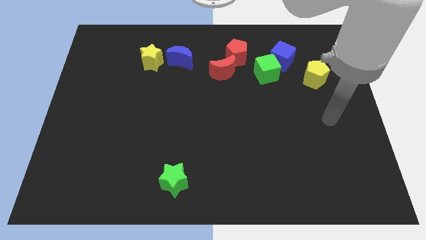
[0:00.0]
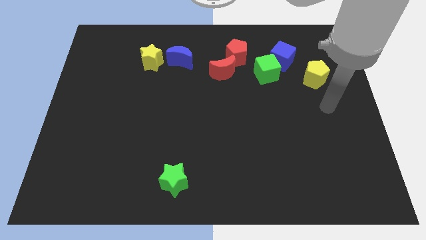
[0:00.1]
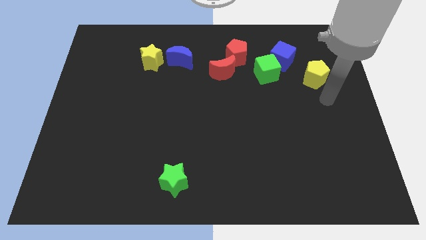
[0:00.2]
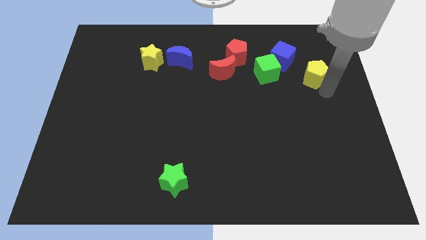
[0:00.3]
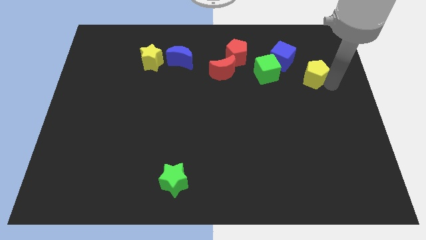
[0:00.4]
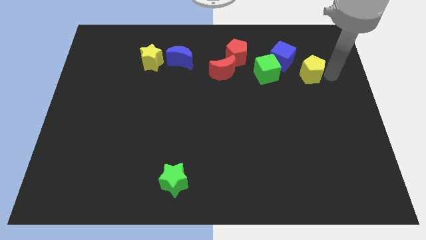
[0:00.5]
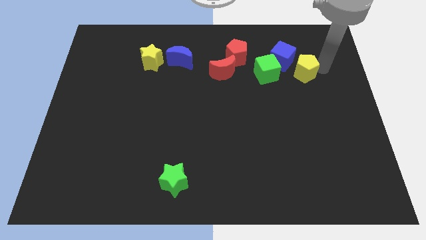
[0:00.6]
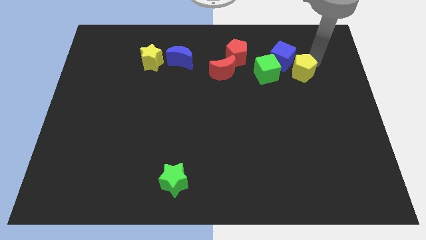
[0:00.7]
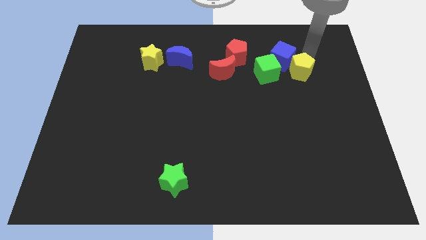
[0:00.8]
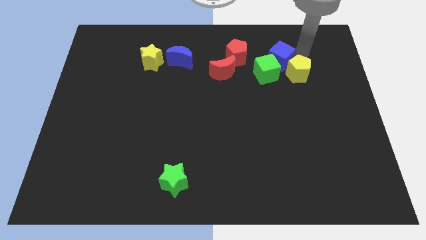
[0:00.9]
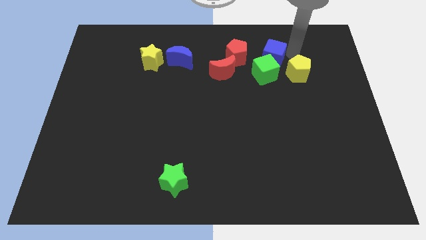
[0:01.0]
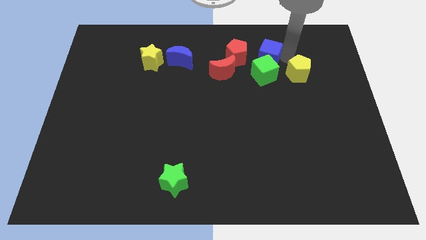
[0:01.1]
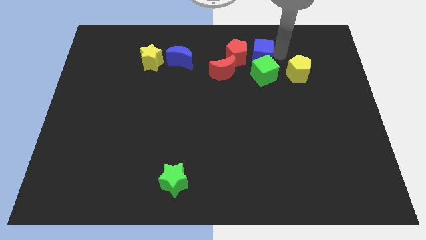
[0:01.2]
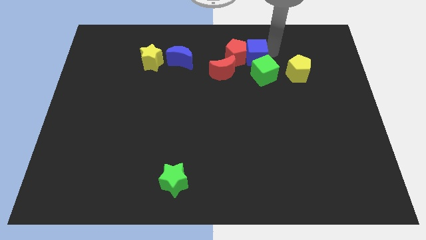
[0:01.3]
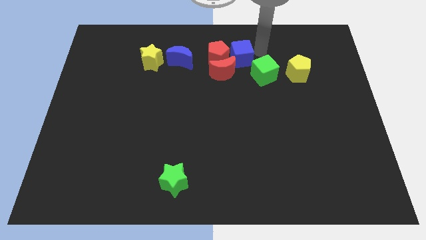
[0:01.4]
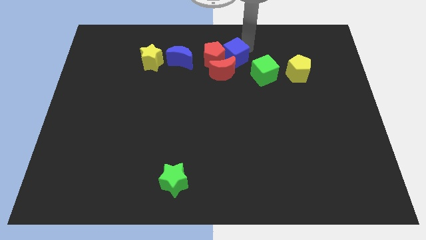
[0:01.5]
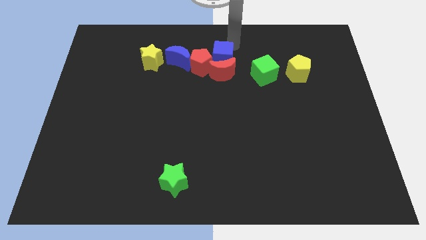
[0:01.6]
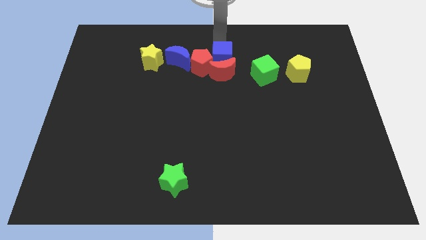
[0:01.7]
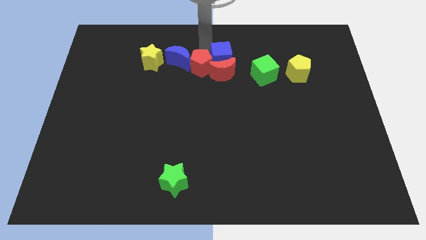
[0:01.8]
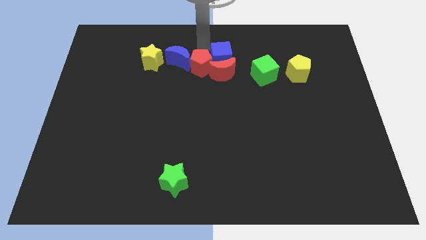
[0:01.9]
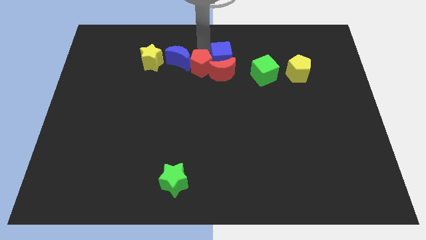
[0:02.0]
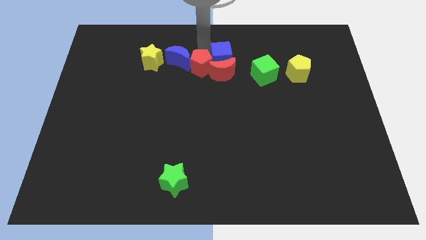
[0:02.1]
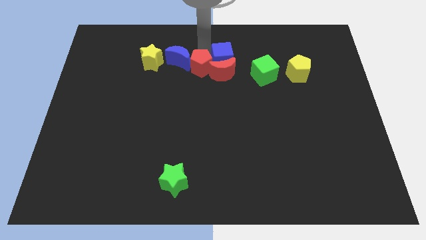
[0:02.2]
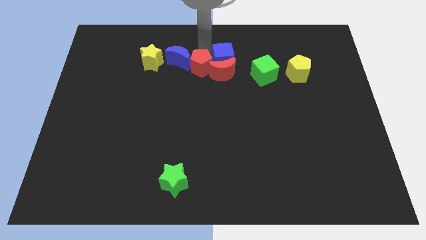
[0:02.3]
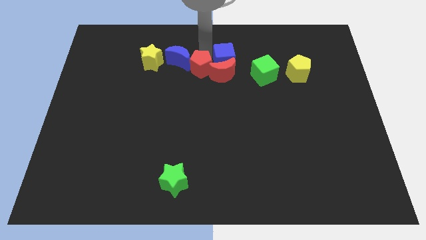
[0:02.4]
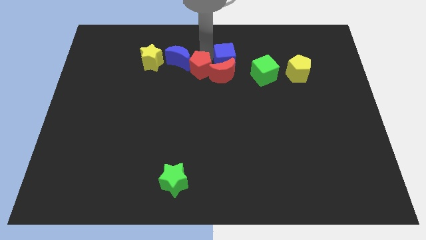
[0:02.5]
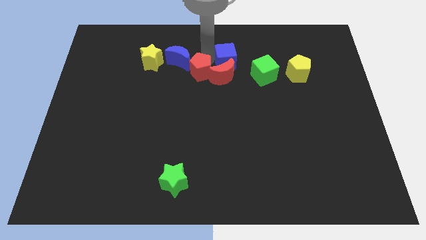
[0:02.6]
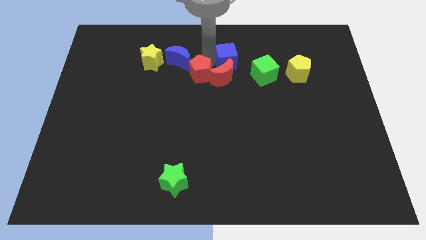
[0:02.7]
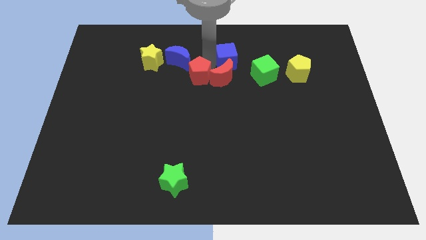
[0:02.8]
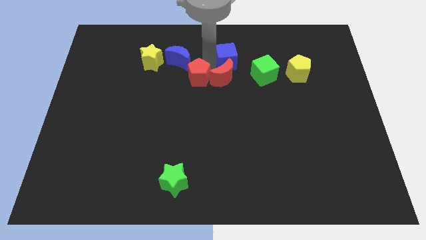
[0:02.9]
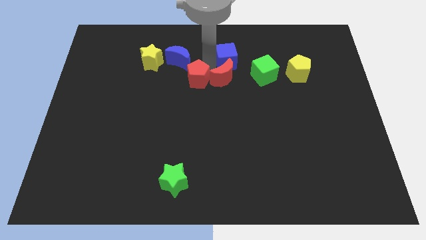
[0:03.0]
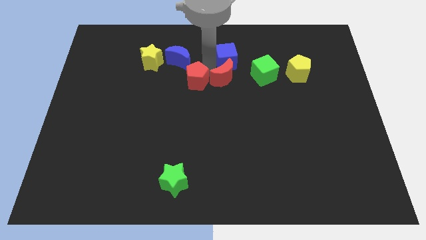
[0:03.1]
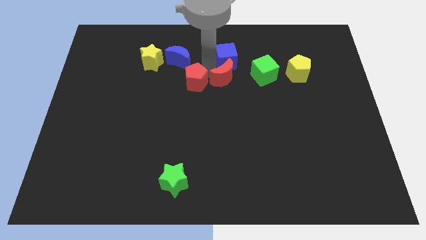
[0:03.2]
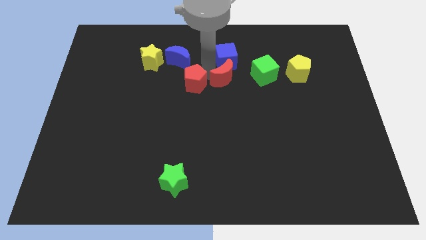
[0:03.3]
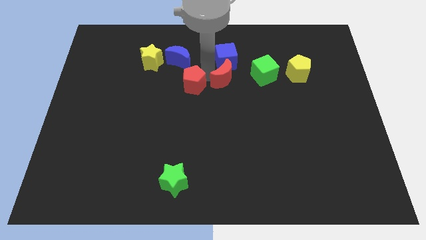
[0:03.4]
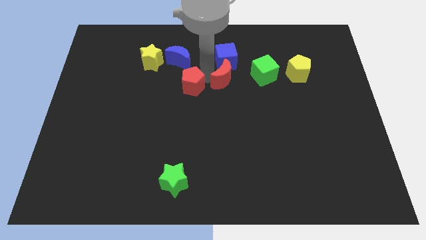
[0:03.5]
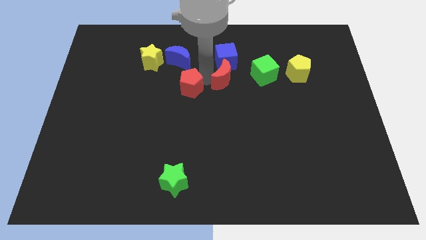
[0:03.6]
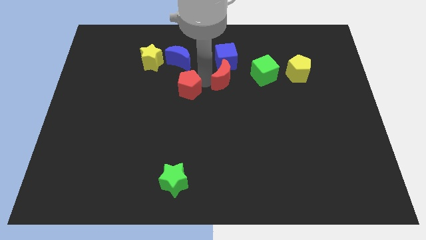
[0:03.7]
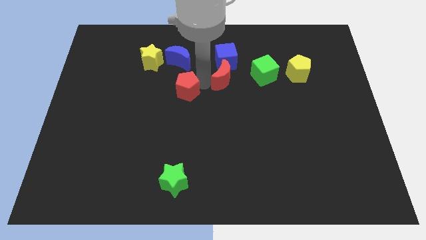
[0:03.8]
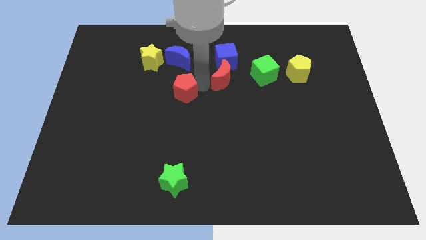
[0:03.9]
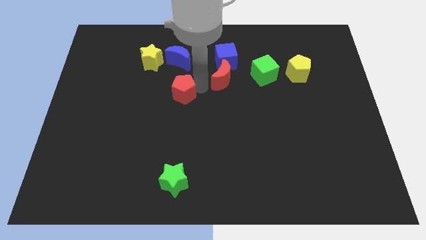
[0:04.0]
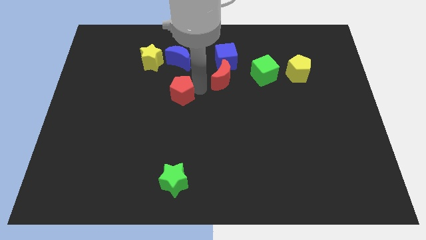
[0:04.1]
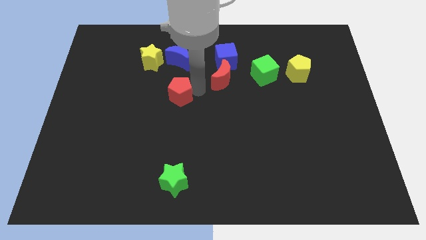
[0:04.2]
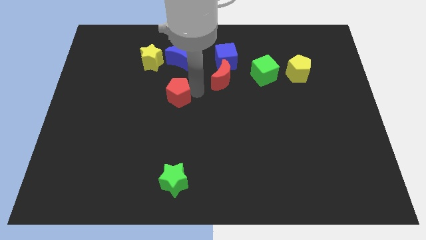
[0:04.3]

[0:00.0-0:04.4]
move the red pentagon diagonally downwards and left

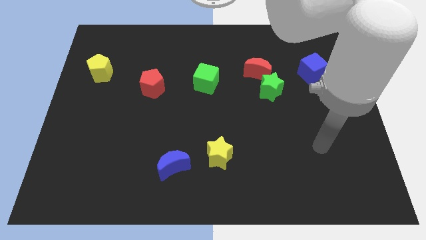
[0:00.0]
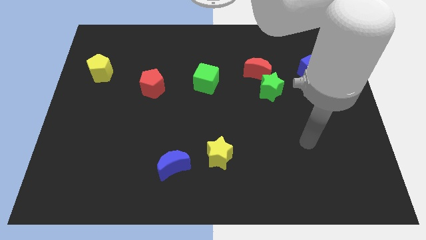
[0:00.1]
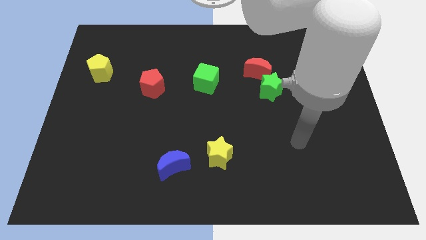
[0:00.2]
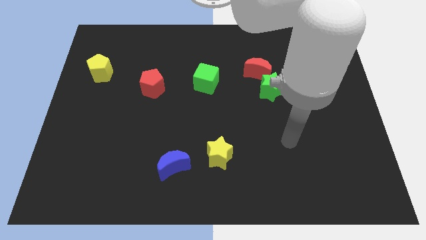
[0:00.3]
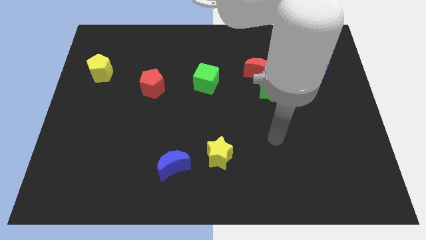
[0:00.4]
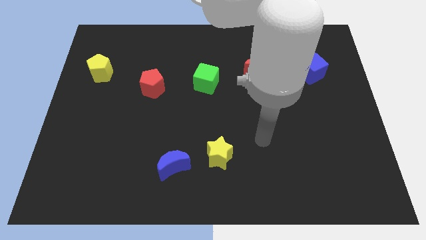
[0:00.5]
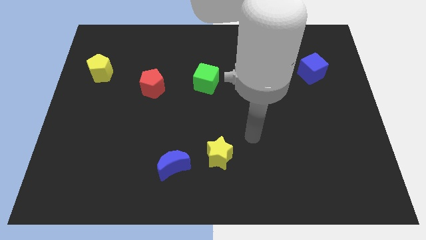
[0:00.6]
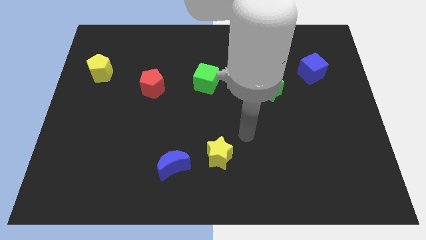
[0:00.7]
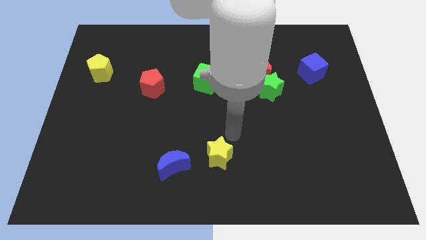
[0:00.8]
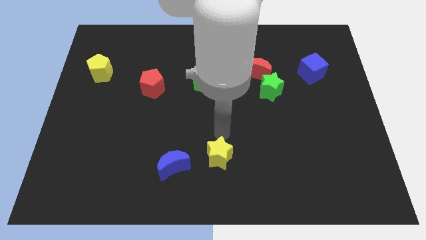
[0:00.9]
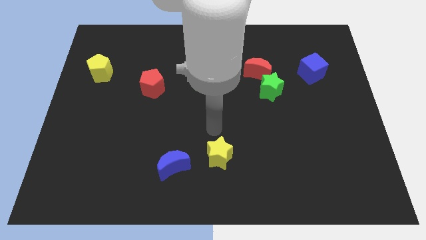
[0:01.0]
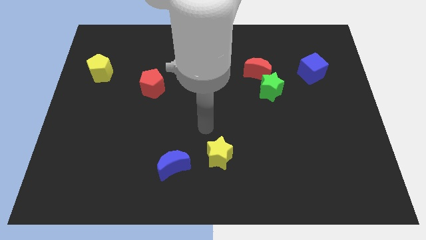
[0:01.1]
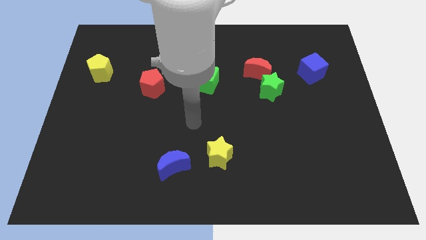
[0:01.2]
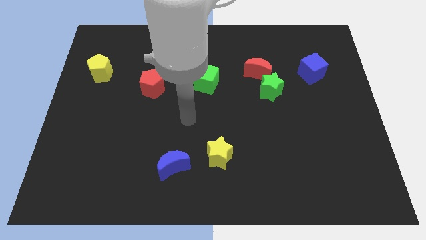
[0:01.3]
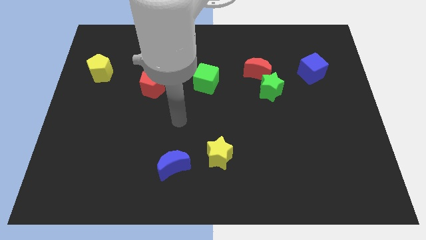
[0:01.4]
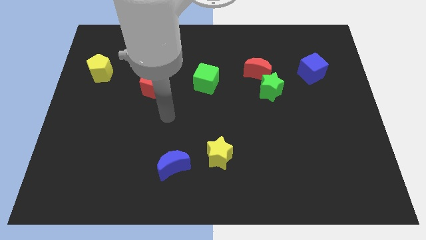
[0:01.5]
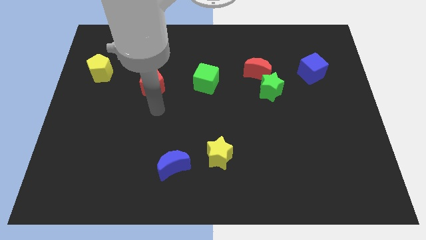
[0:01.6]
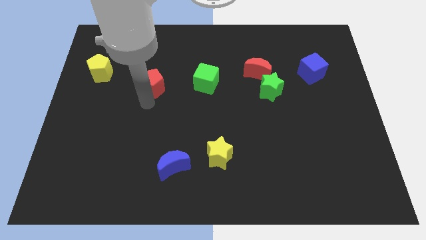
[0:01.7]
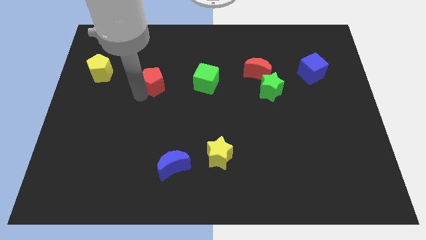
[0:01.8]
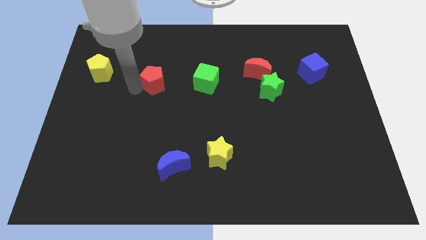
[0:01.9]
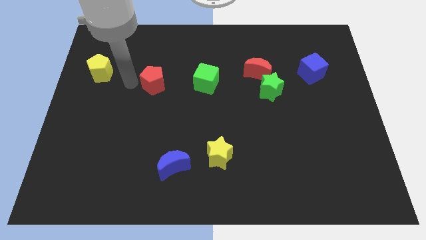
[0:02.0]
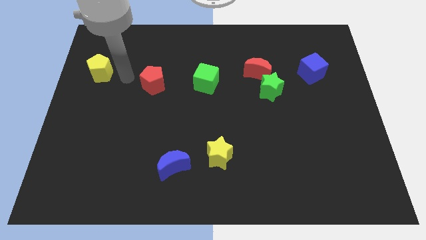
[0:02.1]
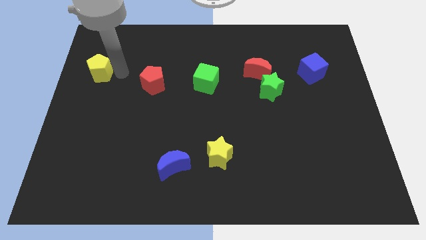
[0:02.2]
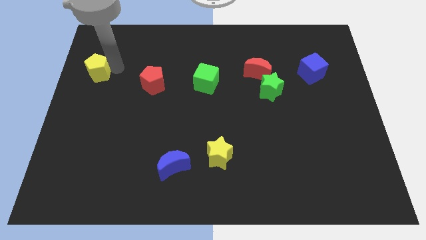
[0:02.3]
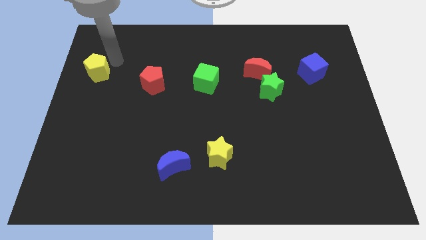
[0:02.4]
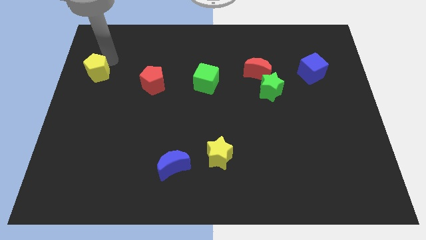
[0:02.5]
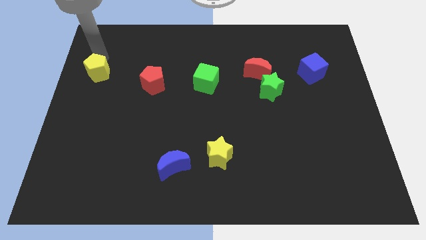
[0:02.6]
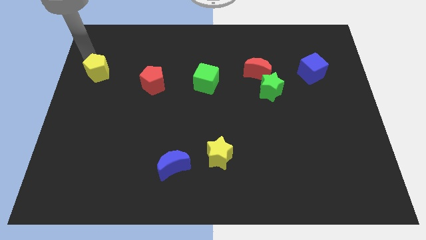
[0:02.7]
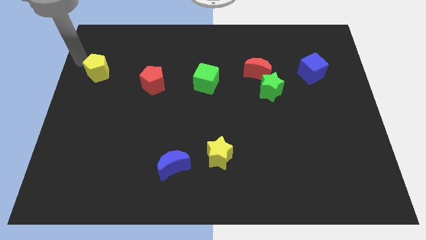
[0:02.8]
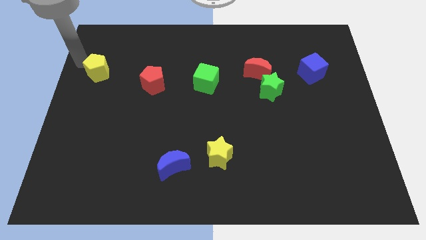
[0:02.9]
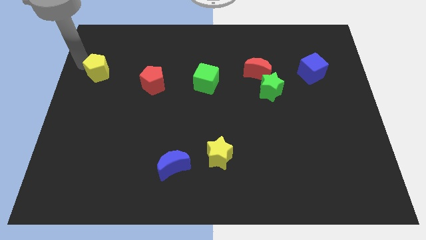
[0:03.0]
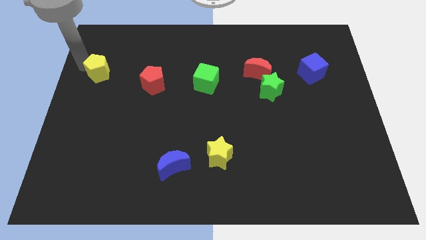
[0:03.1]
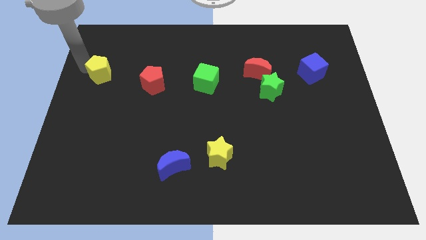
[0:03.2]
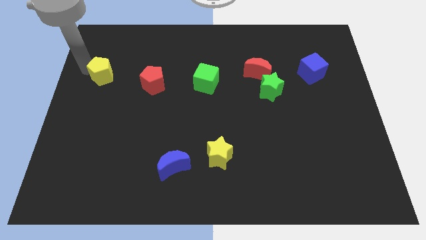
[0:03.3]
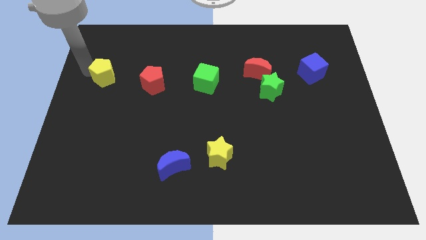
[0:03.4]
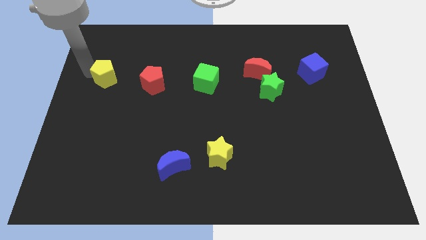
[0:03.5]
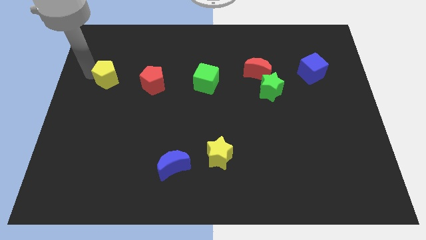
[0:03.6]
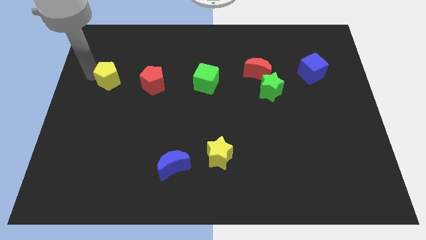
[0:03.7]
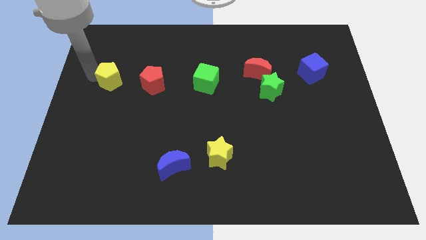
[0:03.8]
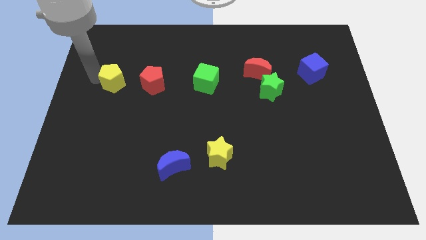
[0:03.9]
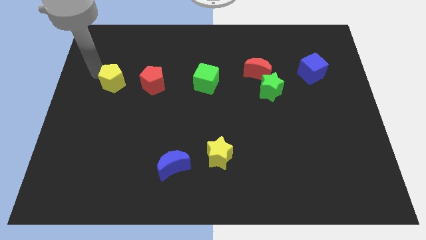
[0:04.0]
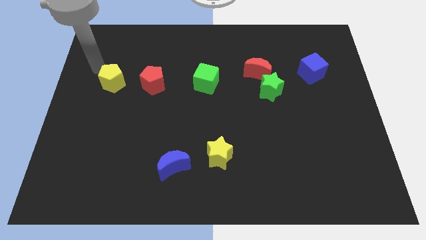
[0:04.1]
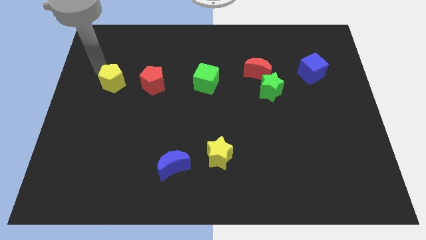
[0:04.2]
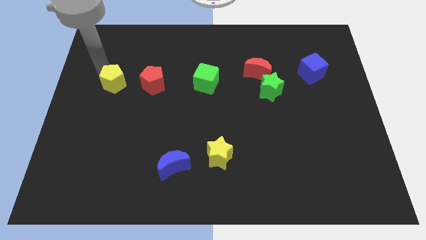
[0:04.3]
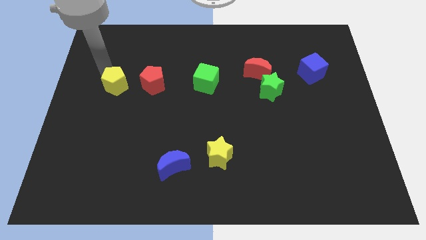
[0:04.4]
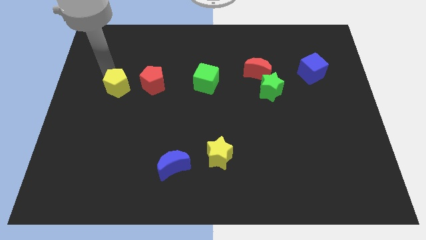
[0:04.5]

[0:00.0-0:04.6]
slightly move the yellow pentagon downwards and then right
